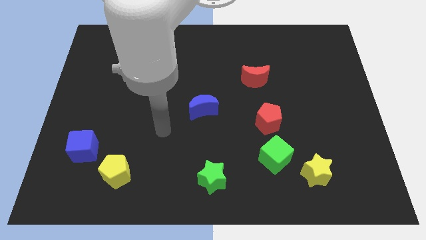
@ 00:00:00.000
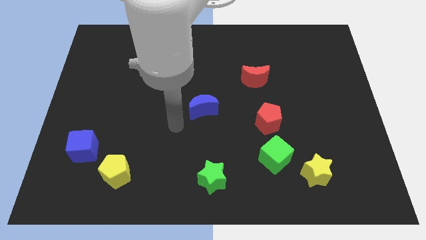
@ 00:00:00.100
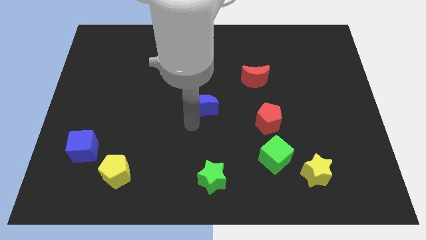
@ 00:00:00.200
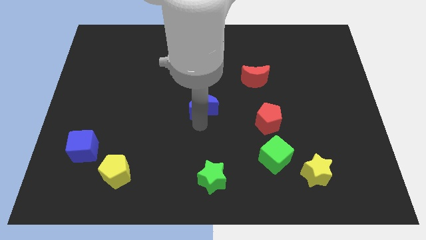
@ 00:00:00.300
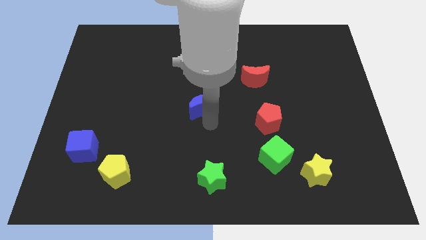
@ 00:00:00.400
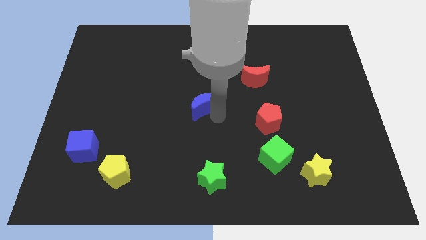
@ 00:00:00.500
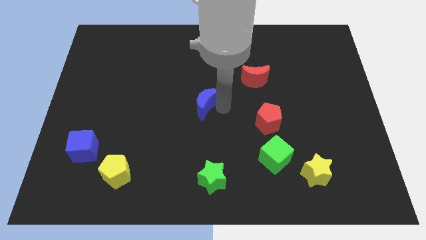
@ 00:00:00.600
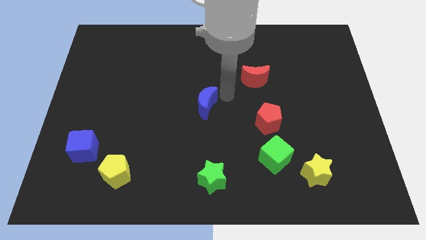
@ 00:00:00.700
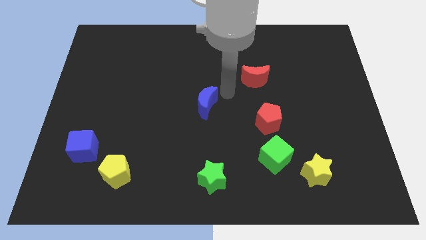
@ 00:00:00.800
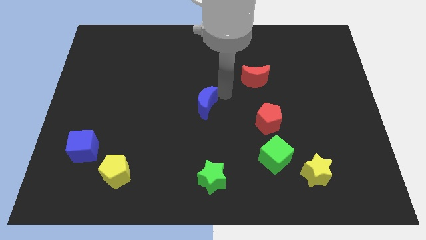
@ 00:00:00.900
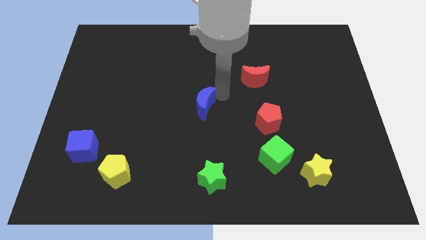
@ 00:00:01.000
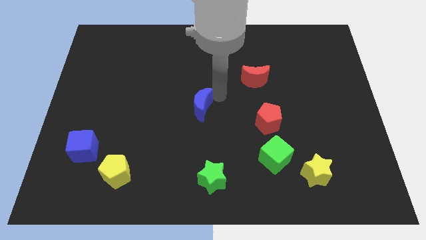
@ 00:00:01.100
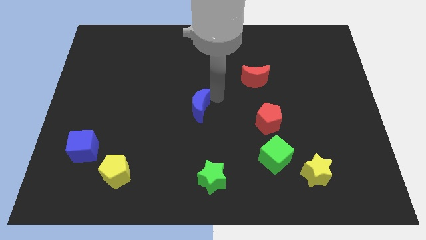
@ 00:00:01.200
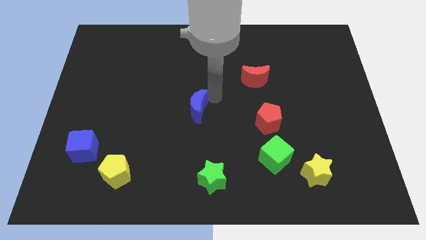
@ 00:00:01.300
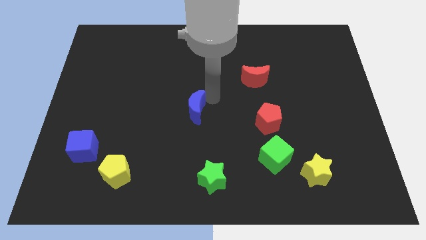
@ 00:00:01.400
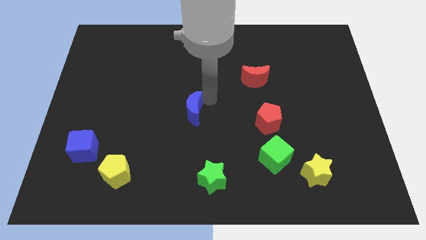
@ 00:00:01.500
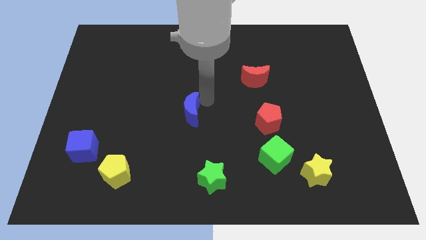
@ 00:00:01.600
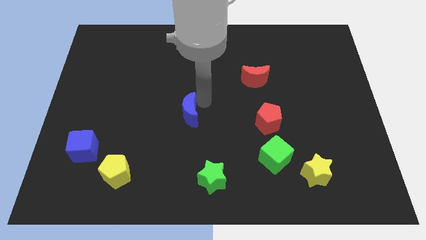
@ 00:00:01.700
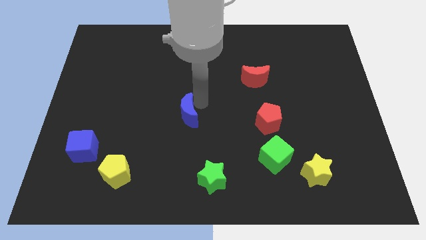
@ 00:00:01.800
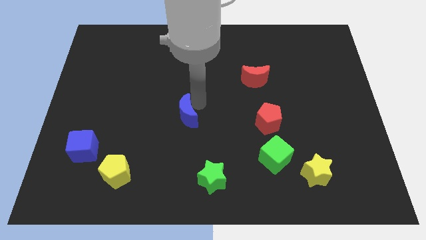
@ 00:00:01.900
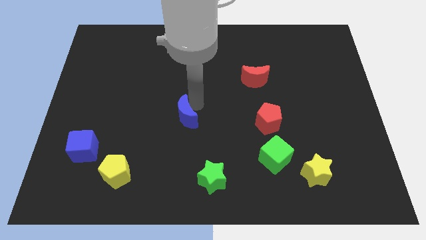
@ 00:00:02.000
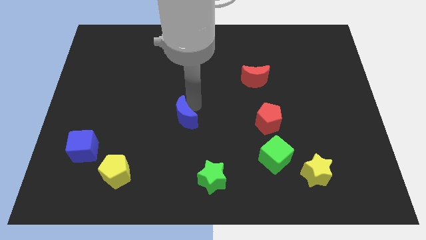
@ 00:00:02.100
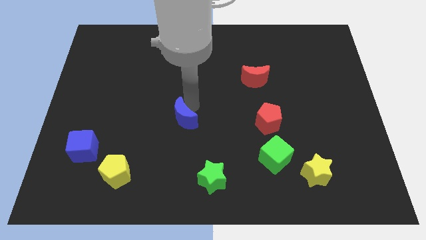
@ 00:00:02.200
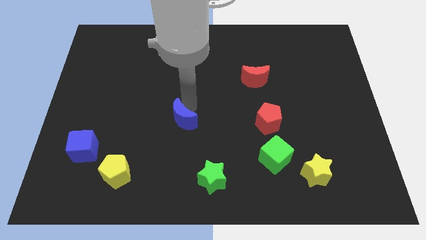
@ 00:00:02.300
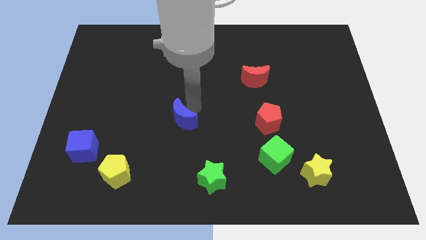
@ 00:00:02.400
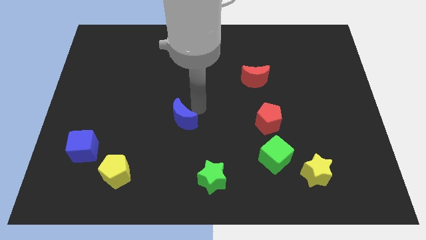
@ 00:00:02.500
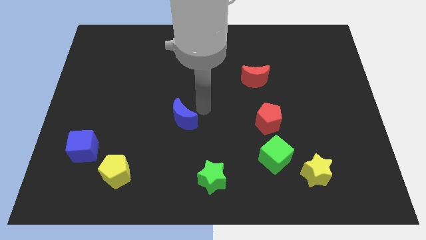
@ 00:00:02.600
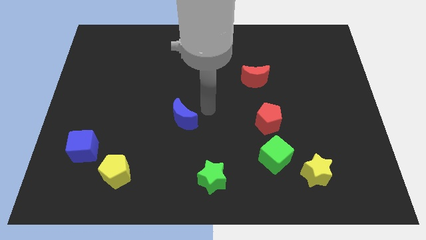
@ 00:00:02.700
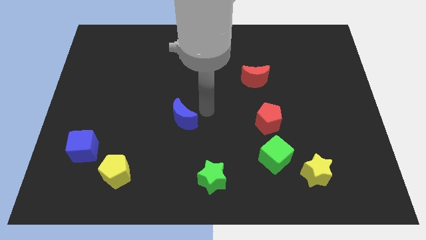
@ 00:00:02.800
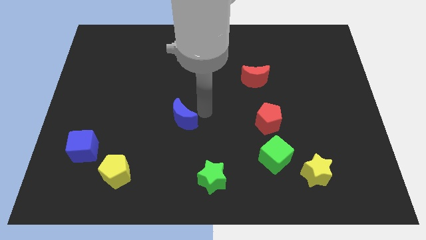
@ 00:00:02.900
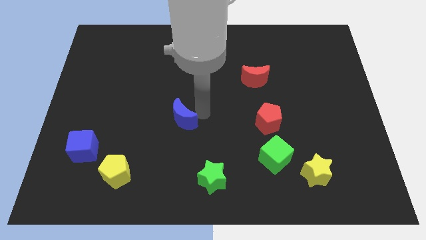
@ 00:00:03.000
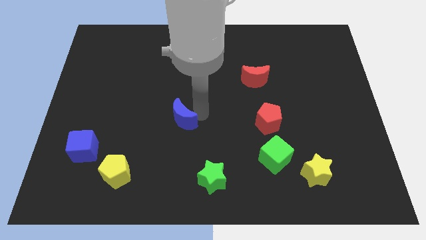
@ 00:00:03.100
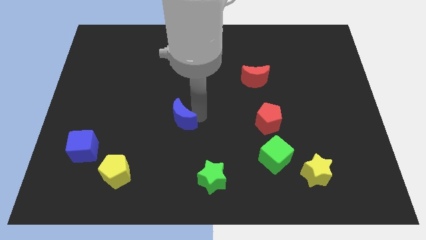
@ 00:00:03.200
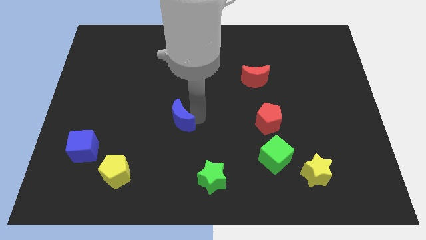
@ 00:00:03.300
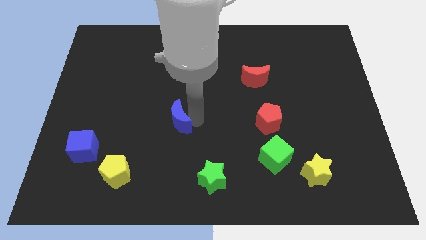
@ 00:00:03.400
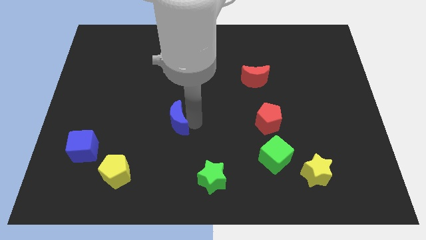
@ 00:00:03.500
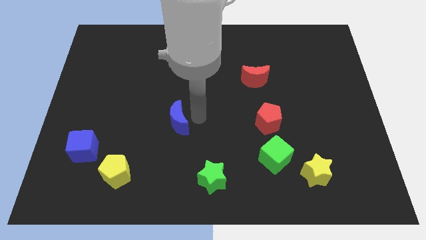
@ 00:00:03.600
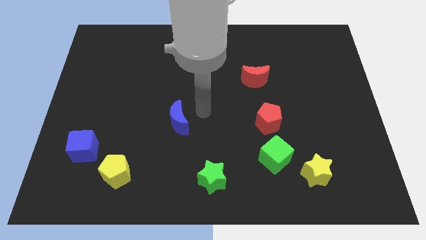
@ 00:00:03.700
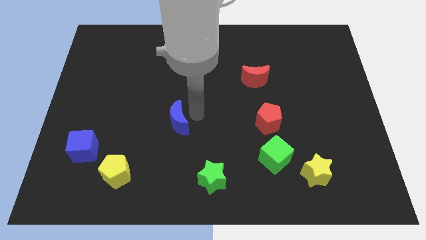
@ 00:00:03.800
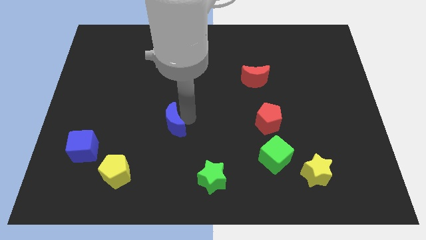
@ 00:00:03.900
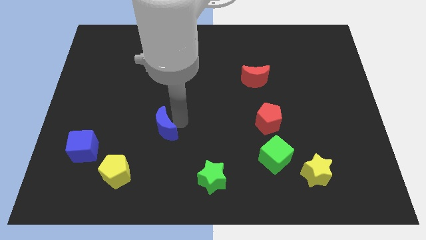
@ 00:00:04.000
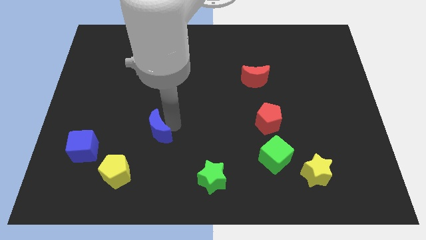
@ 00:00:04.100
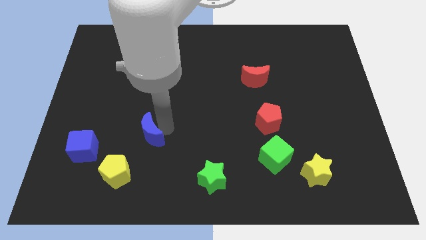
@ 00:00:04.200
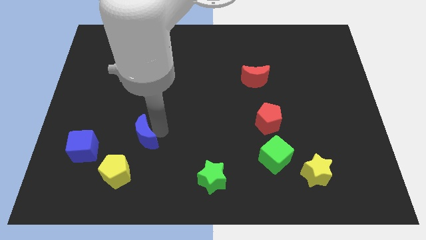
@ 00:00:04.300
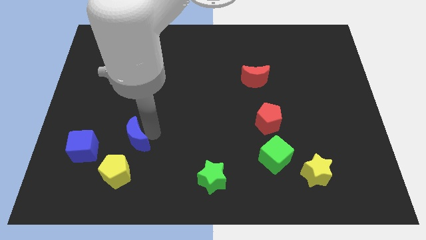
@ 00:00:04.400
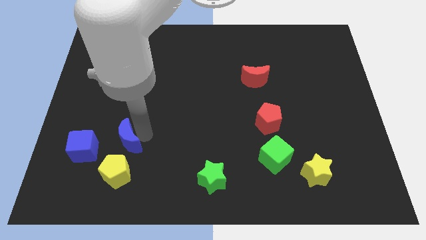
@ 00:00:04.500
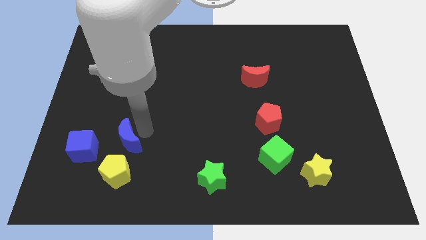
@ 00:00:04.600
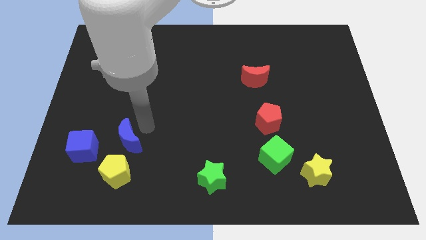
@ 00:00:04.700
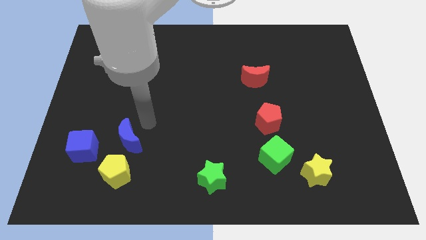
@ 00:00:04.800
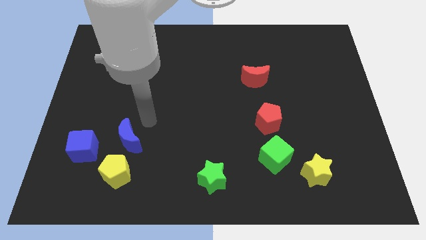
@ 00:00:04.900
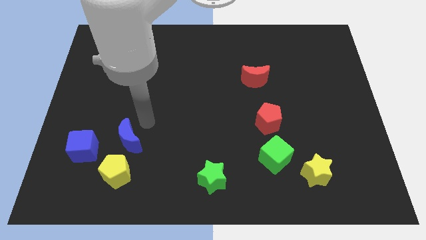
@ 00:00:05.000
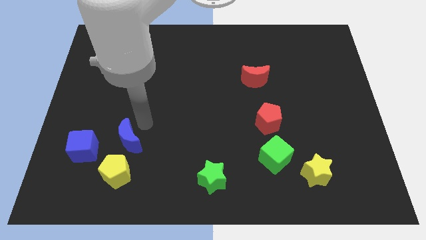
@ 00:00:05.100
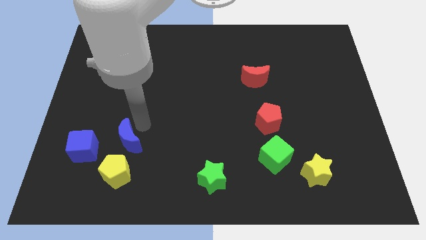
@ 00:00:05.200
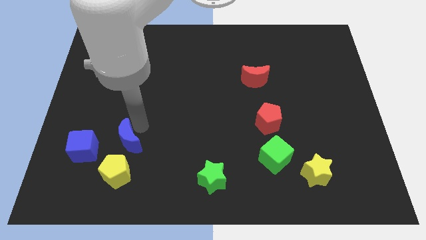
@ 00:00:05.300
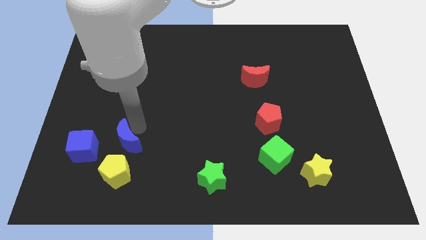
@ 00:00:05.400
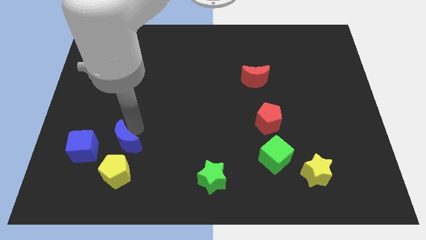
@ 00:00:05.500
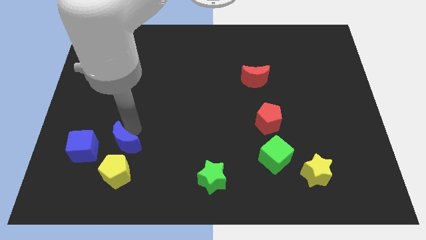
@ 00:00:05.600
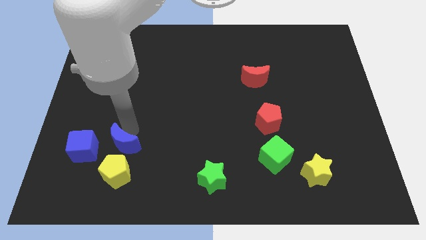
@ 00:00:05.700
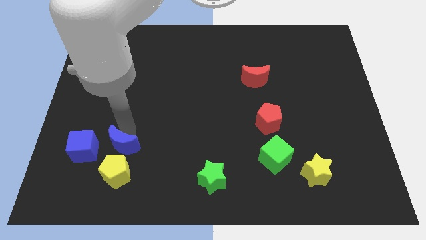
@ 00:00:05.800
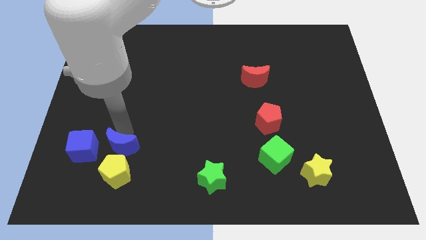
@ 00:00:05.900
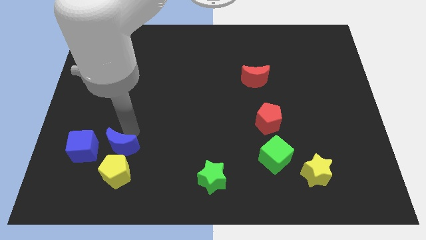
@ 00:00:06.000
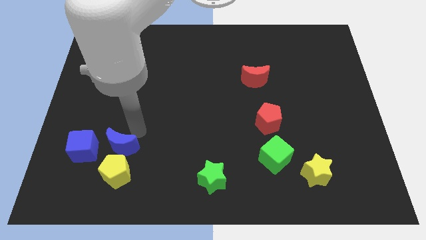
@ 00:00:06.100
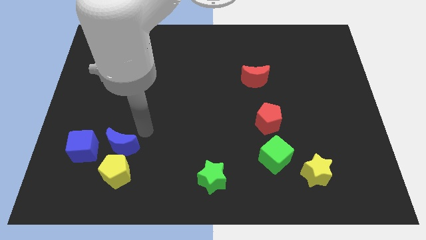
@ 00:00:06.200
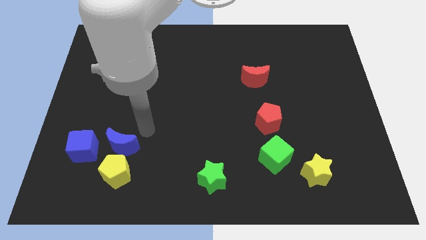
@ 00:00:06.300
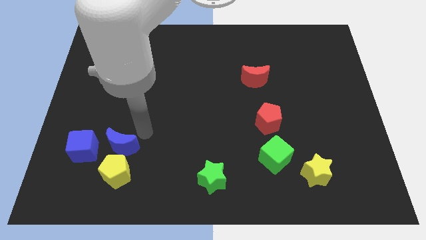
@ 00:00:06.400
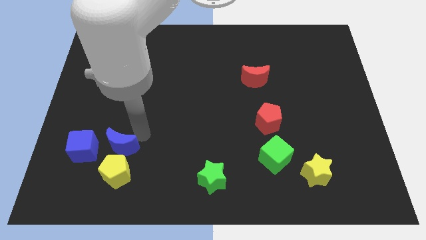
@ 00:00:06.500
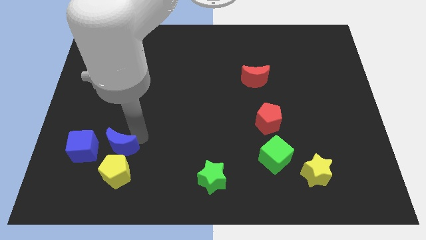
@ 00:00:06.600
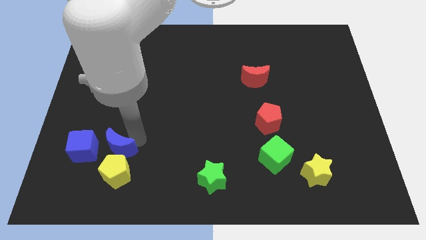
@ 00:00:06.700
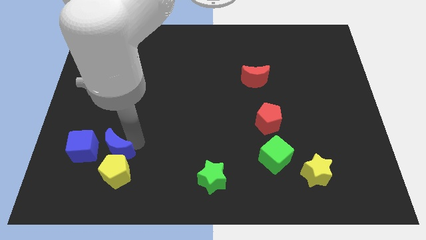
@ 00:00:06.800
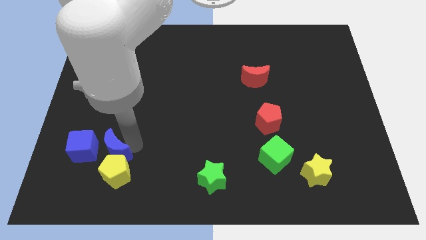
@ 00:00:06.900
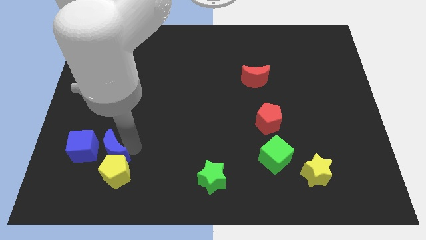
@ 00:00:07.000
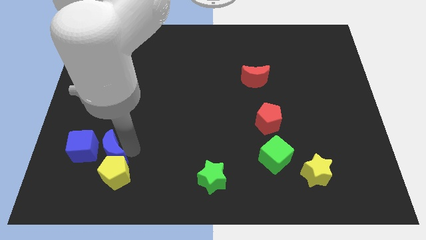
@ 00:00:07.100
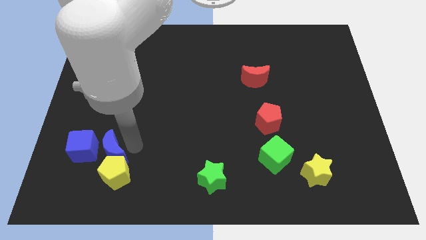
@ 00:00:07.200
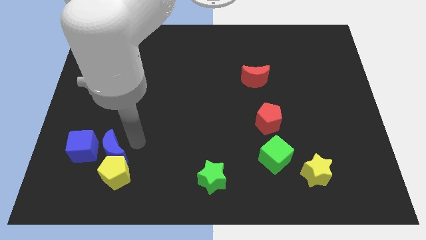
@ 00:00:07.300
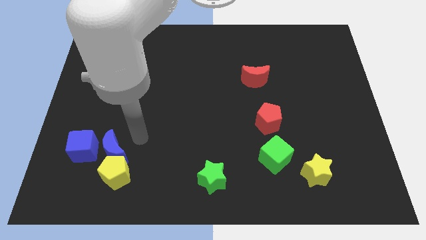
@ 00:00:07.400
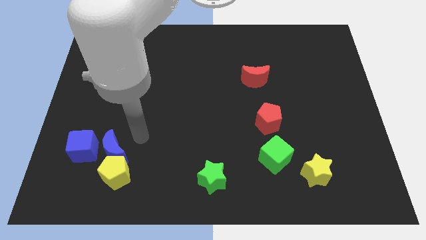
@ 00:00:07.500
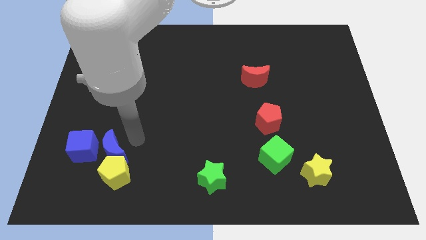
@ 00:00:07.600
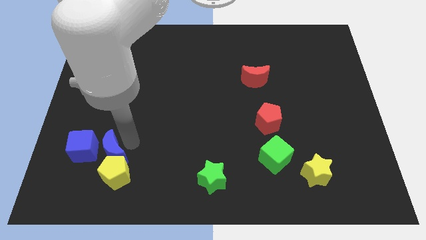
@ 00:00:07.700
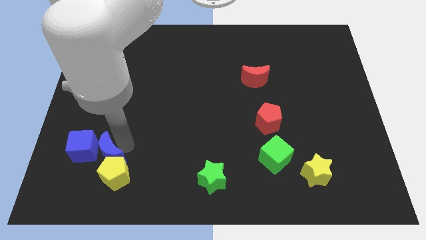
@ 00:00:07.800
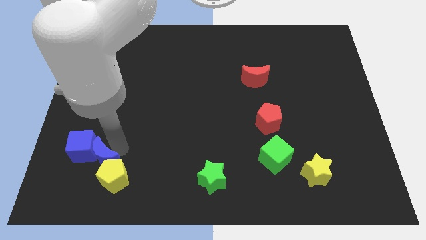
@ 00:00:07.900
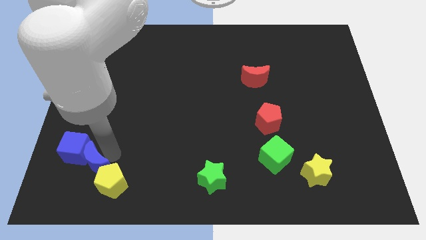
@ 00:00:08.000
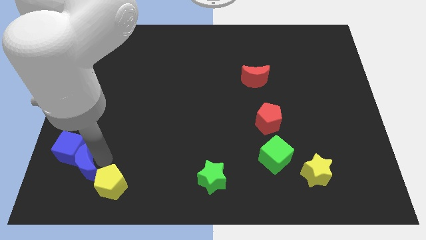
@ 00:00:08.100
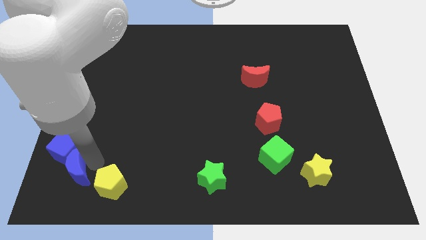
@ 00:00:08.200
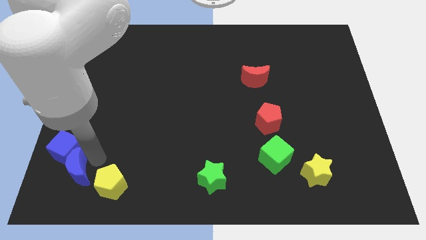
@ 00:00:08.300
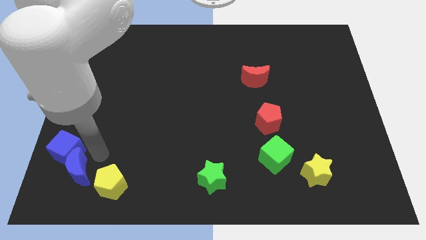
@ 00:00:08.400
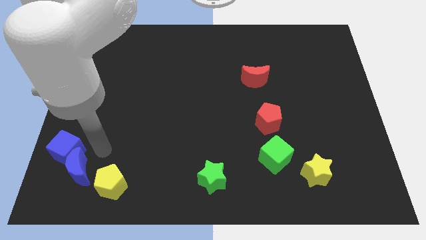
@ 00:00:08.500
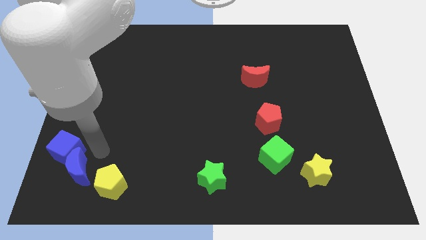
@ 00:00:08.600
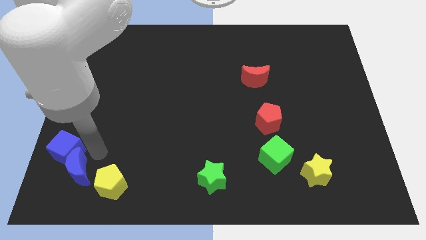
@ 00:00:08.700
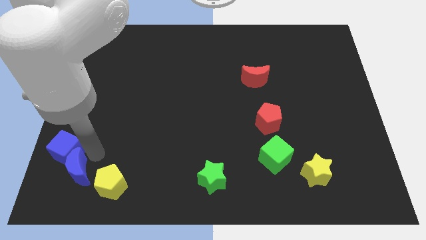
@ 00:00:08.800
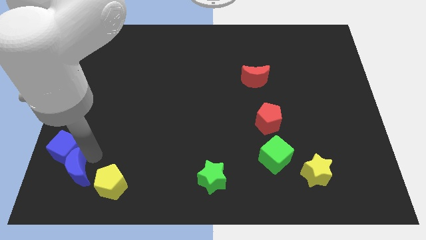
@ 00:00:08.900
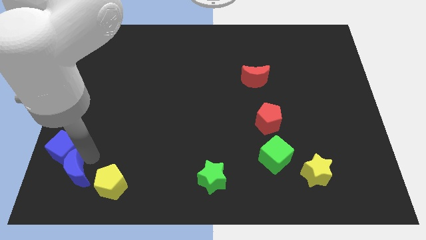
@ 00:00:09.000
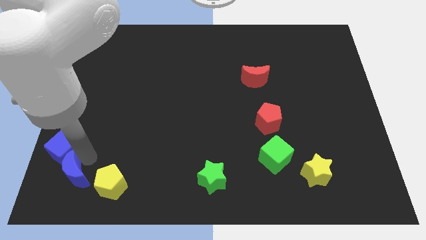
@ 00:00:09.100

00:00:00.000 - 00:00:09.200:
put the blue moon to the bottom left
